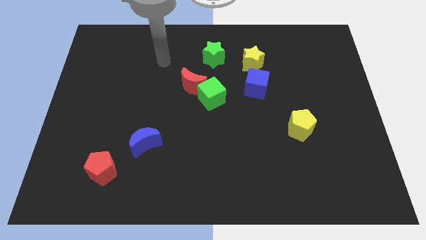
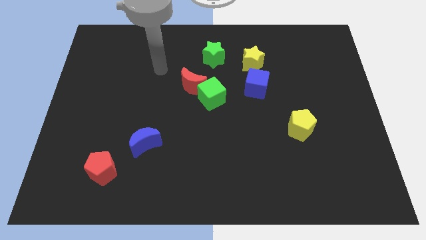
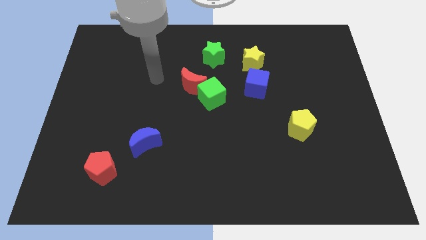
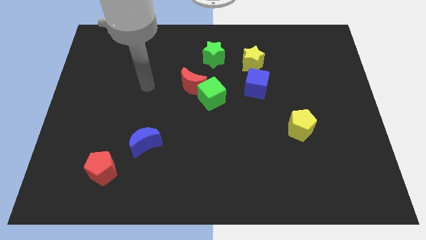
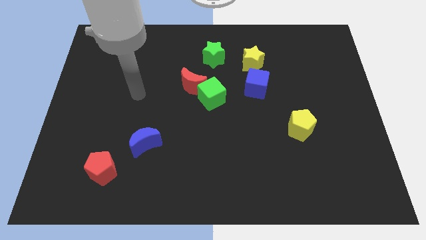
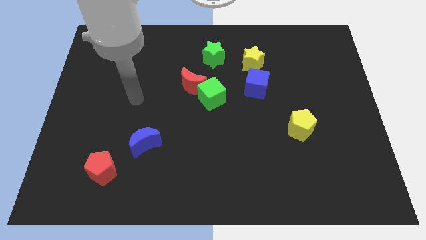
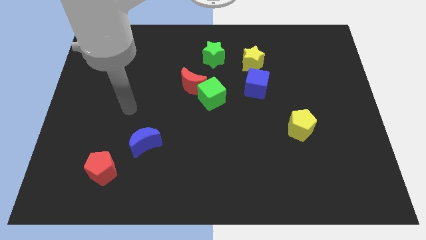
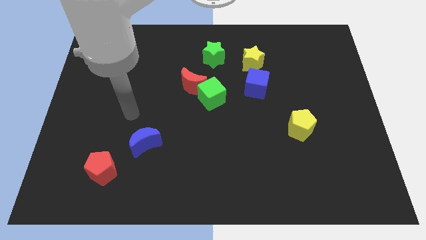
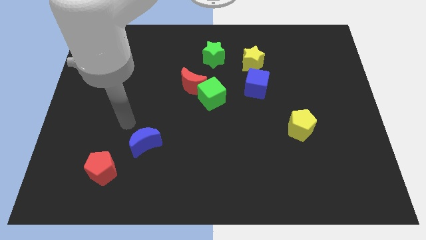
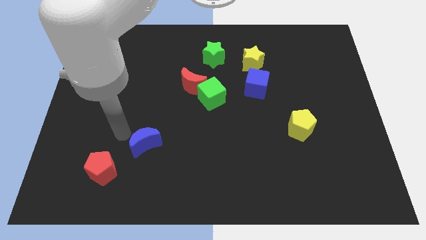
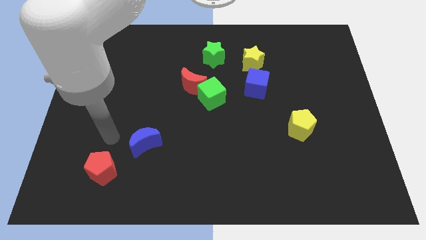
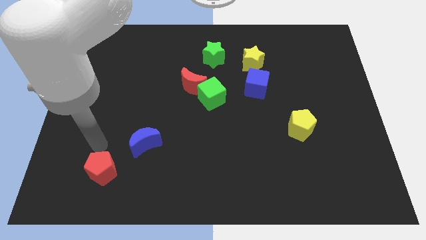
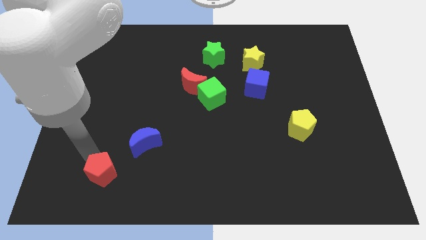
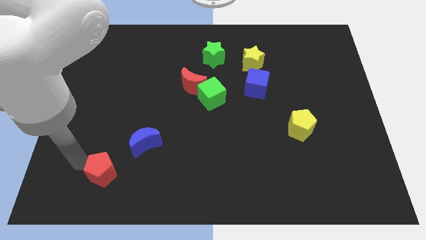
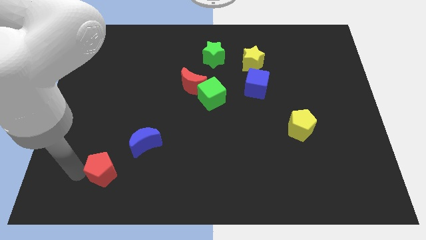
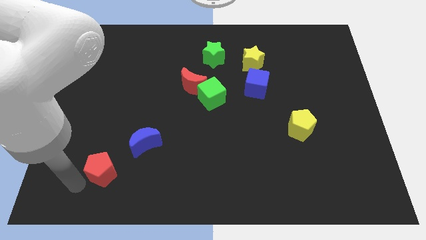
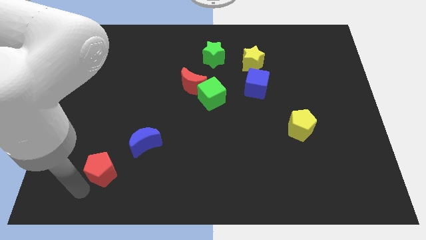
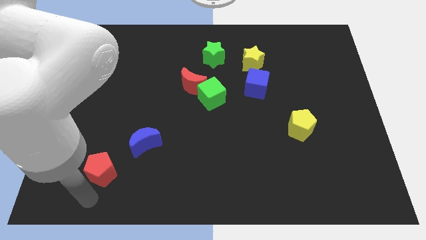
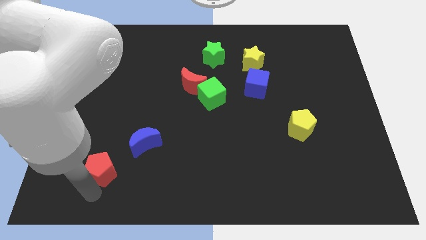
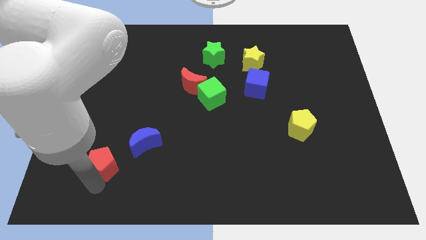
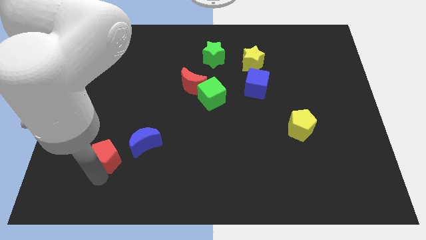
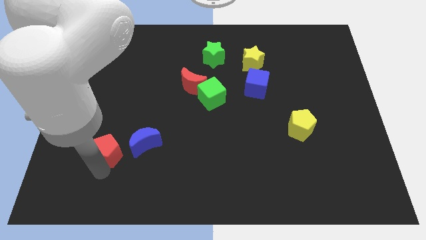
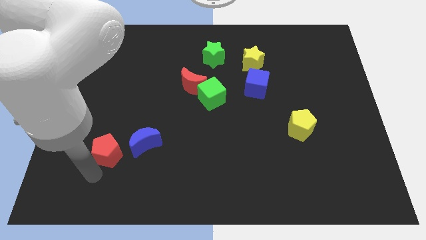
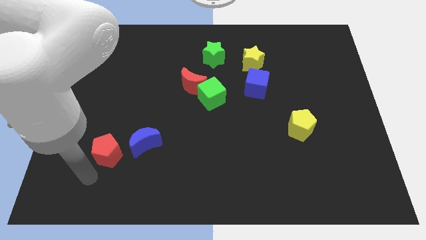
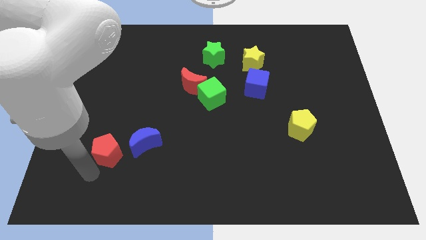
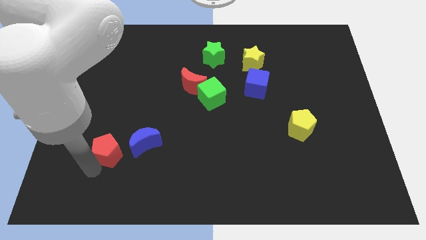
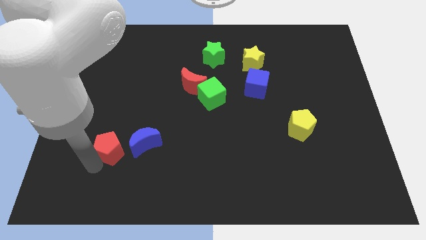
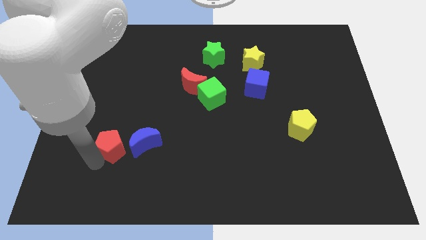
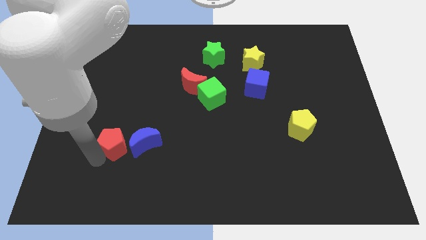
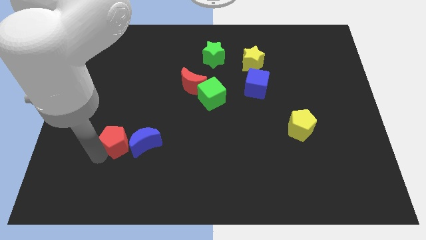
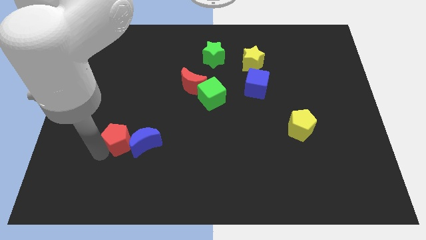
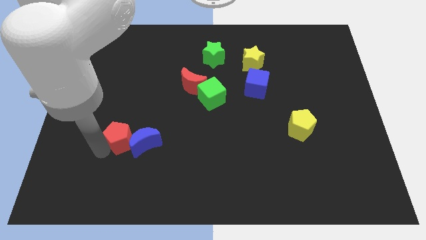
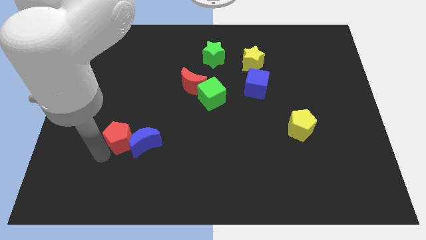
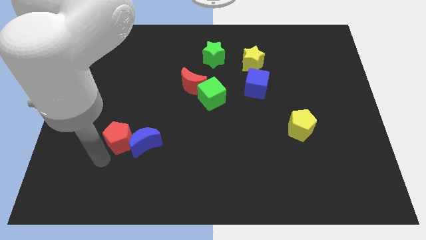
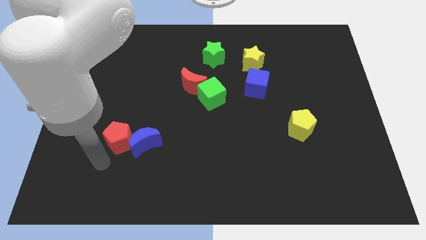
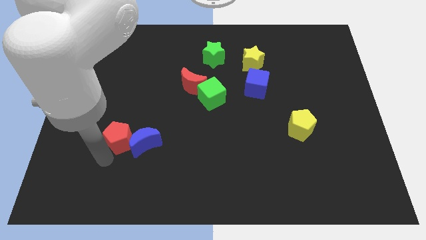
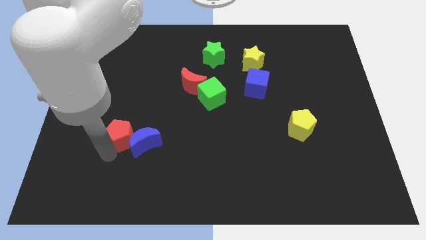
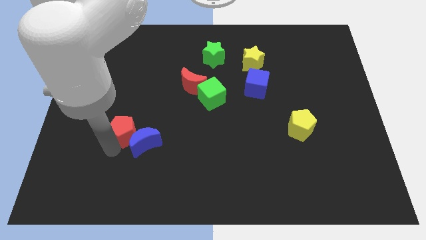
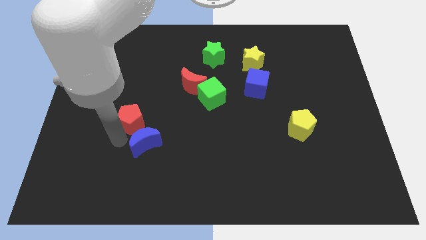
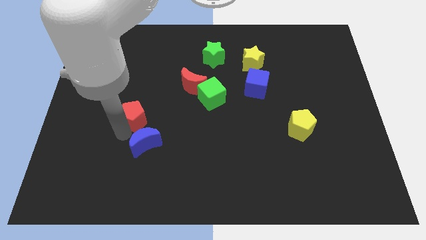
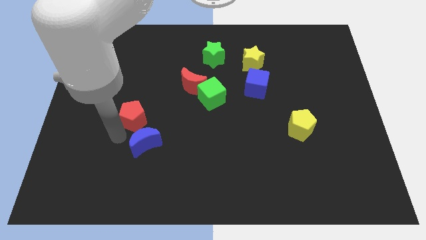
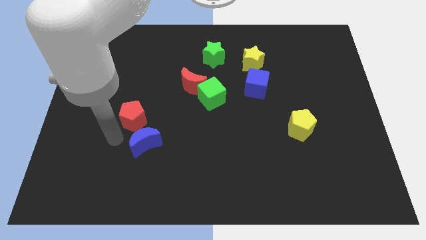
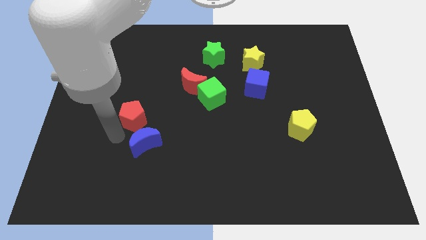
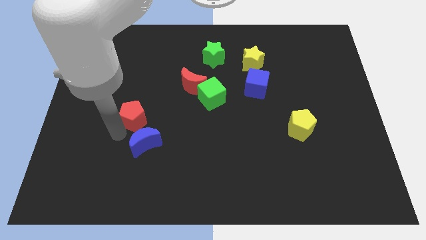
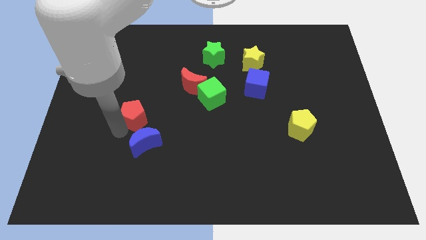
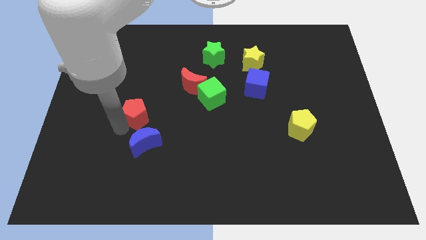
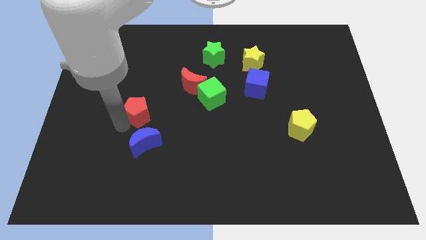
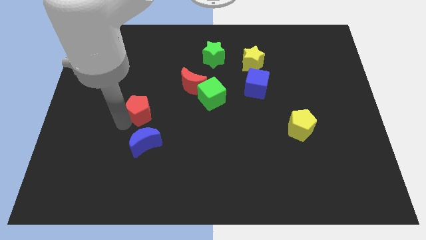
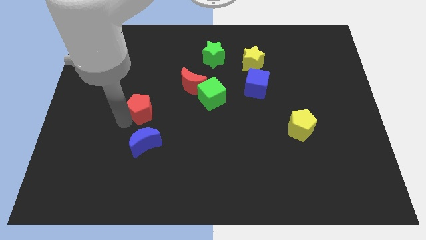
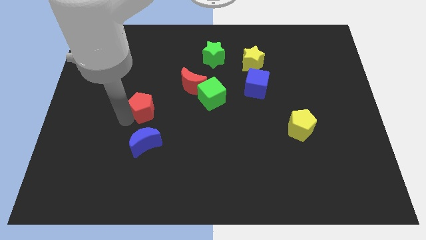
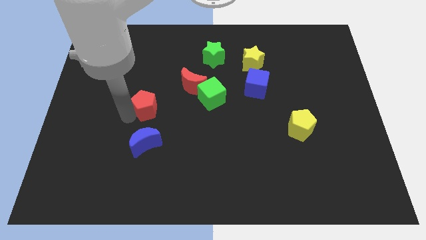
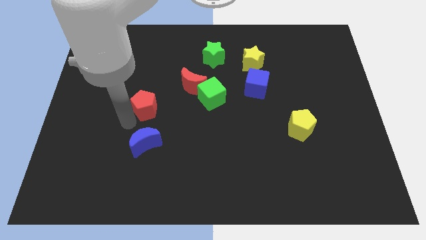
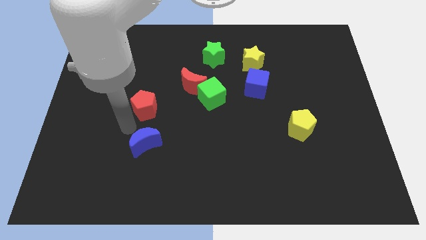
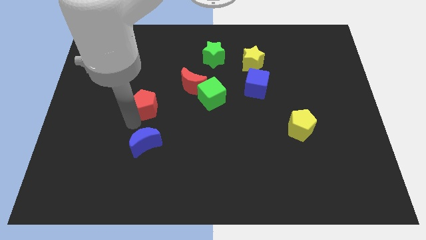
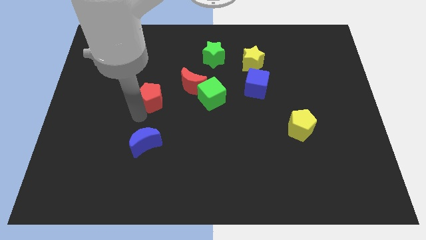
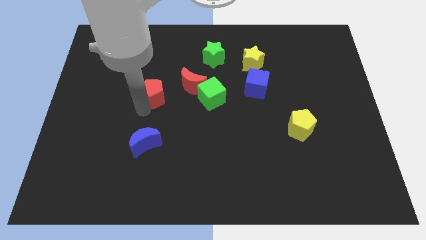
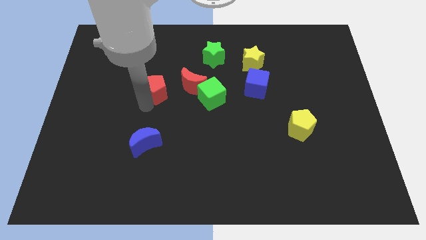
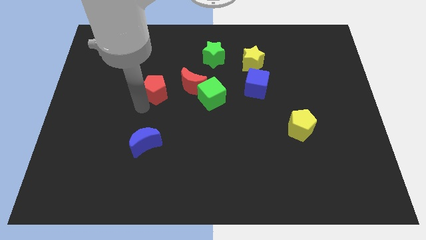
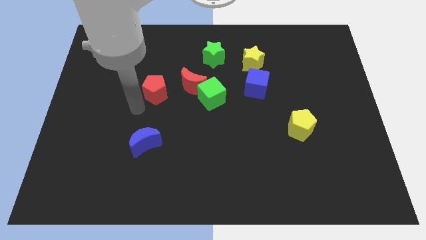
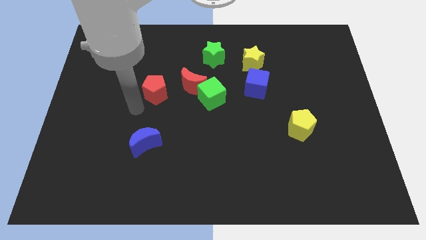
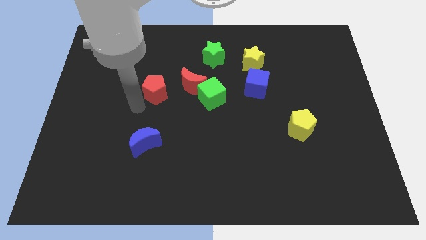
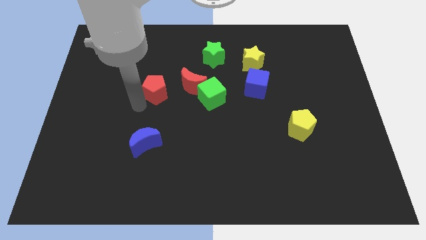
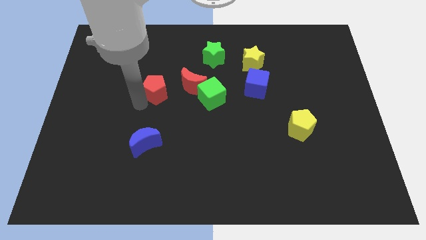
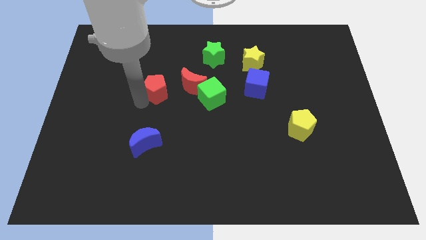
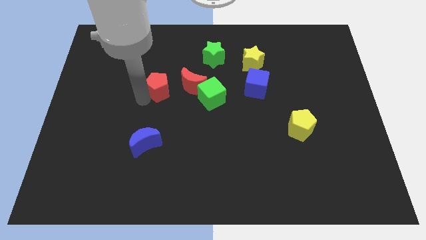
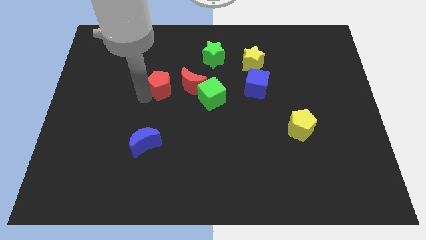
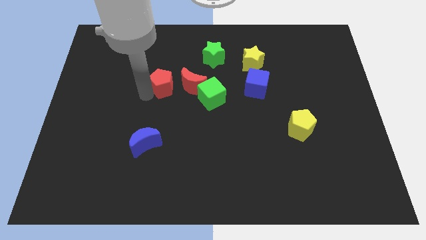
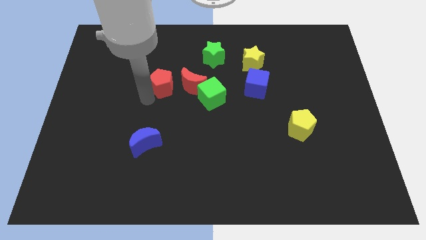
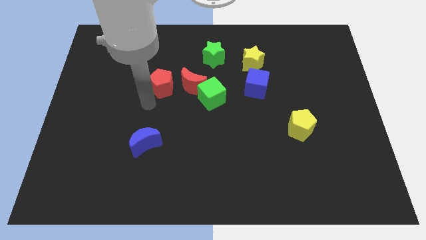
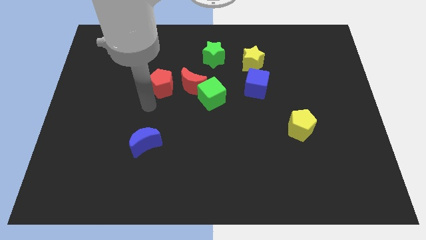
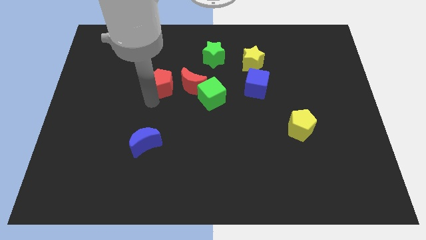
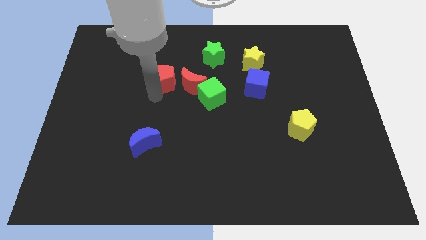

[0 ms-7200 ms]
move the red pentagon to the top left of the red moon
